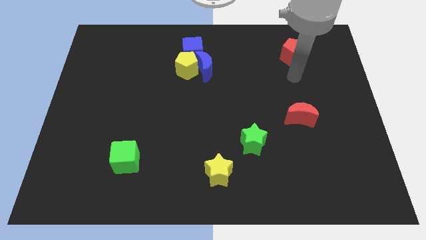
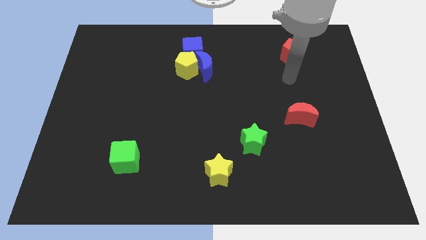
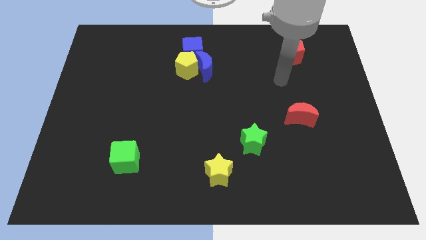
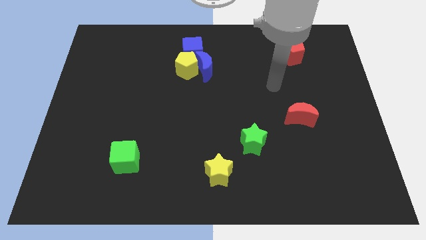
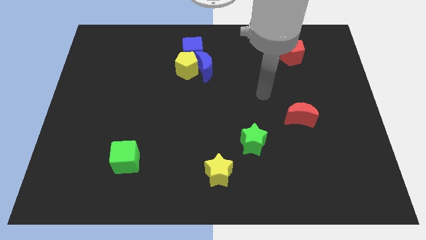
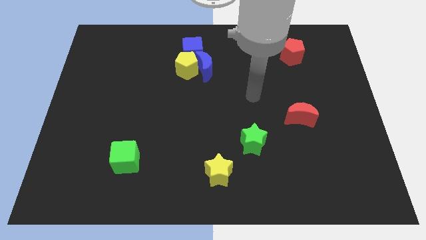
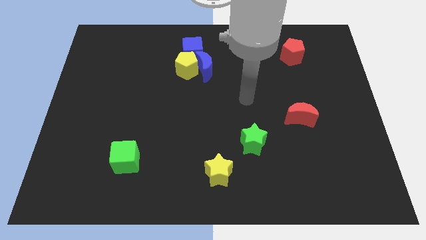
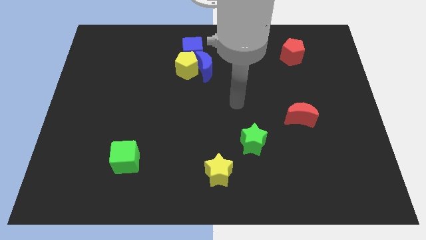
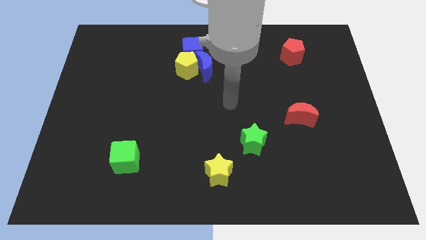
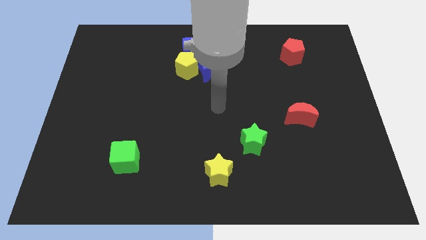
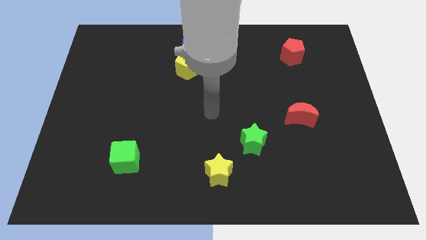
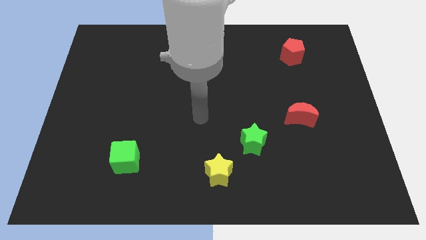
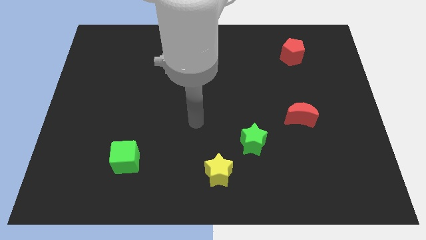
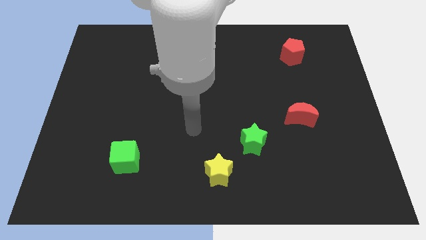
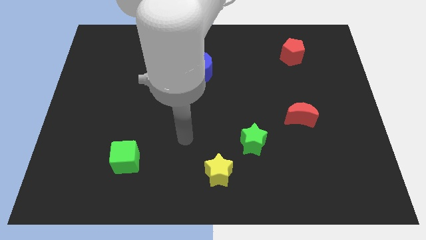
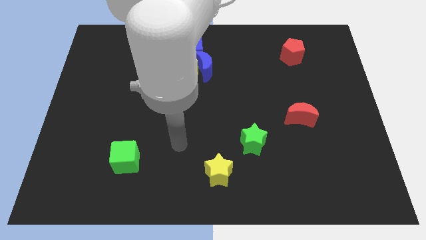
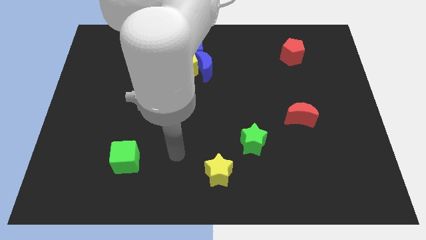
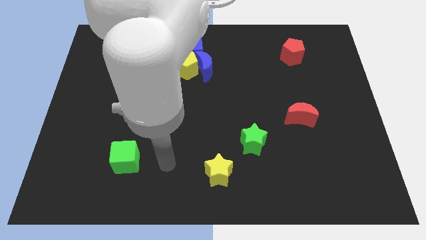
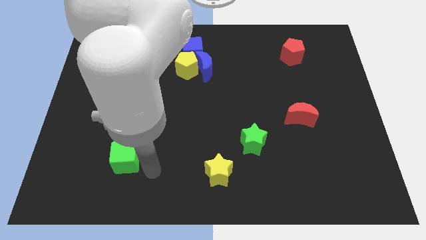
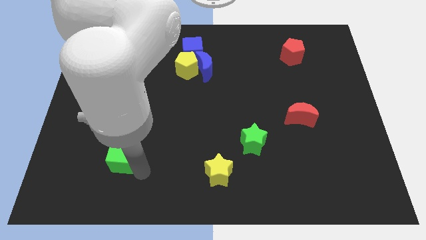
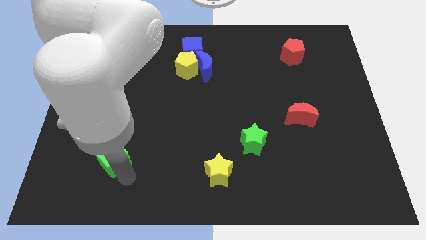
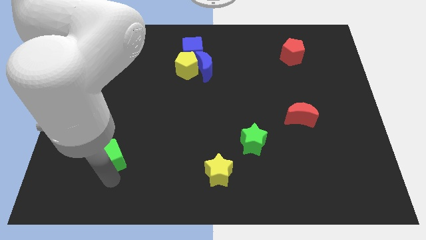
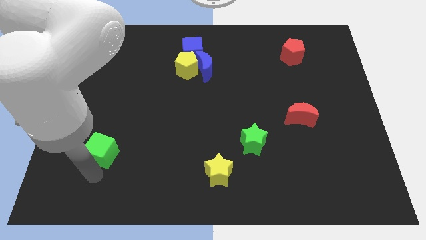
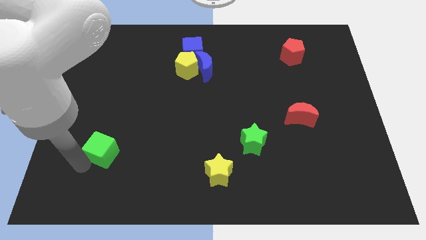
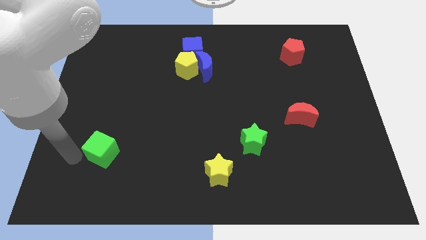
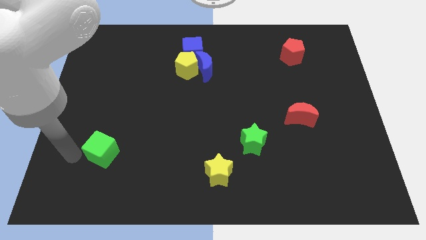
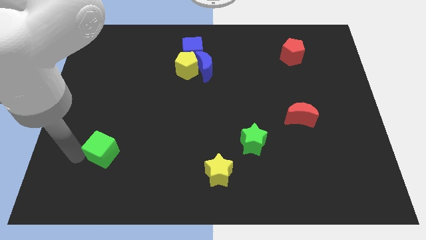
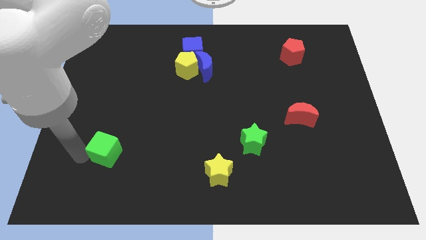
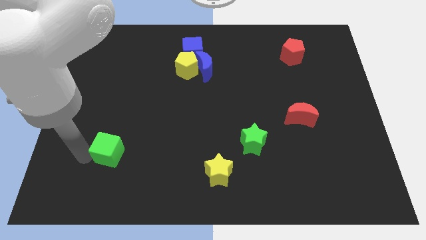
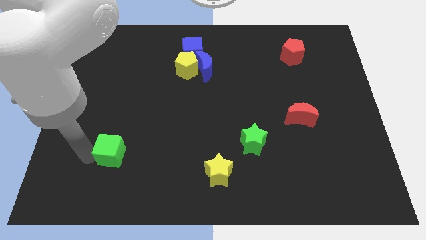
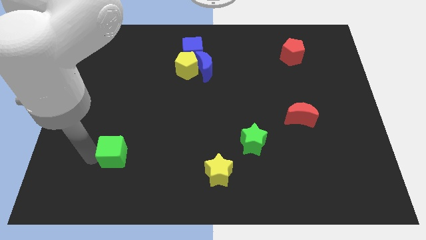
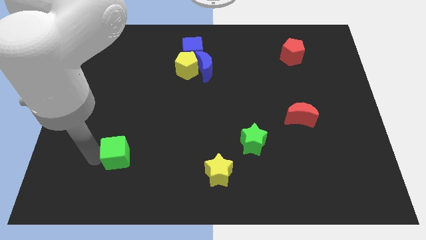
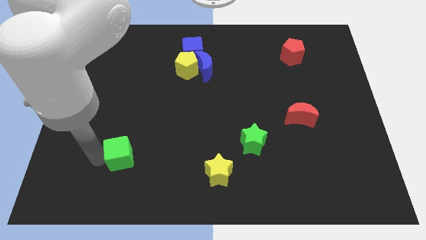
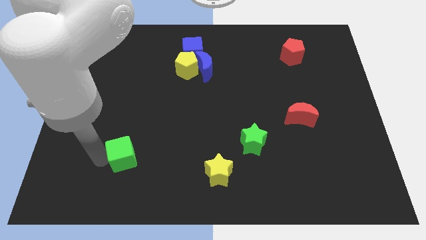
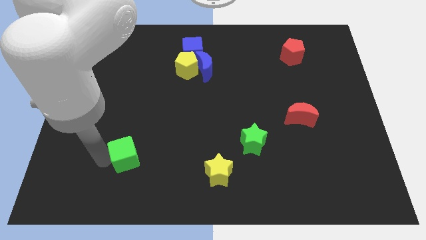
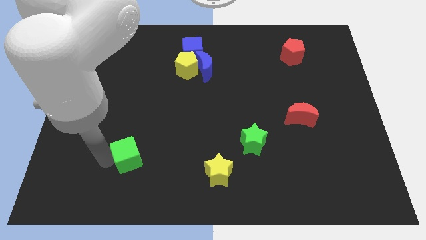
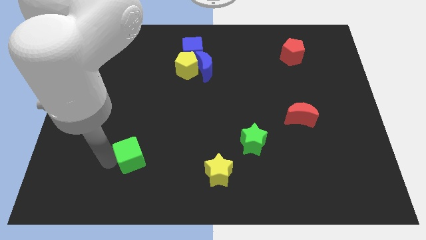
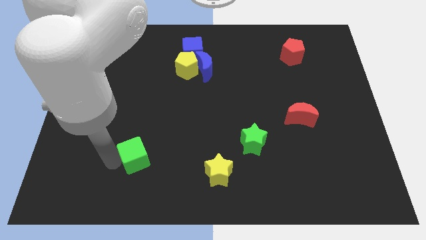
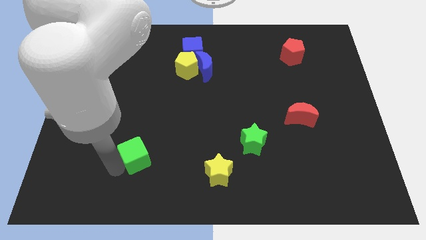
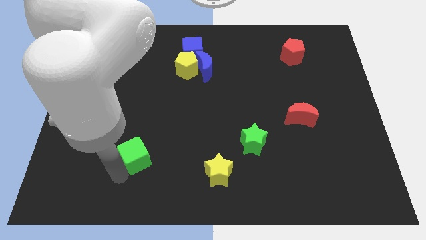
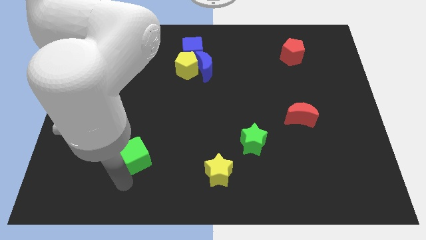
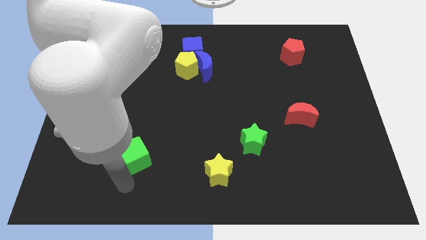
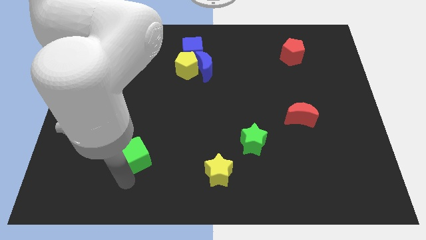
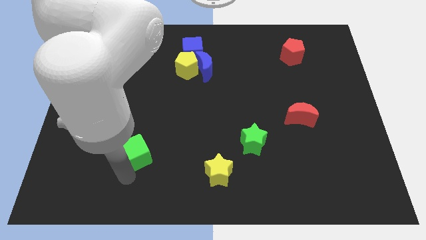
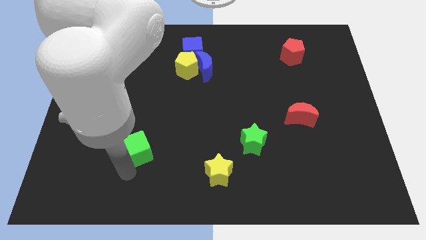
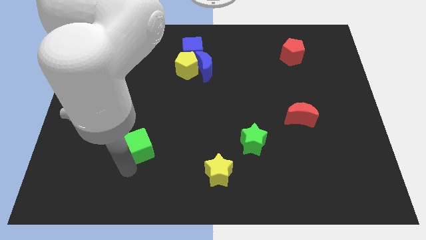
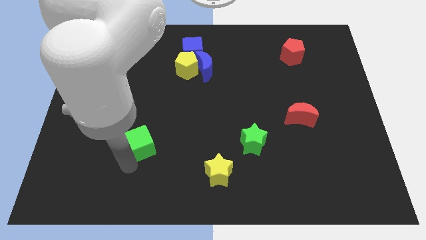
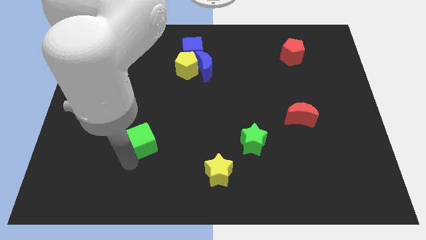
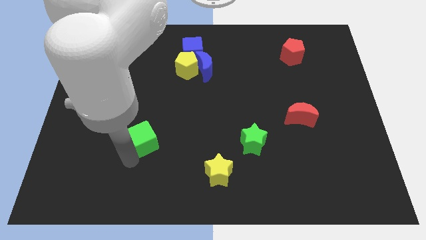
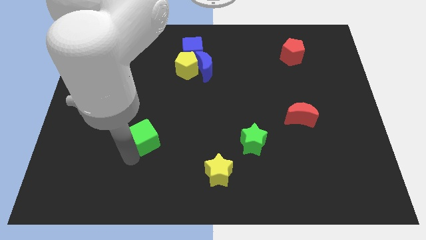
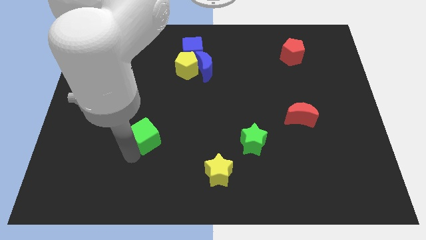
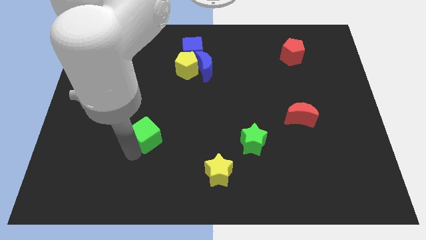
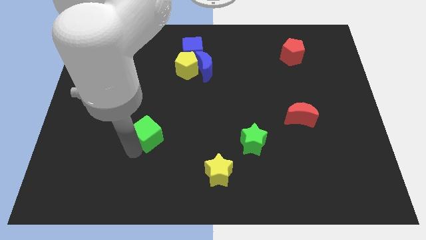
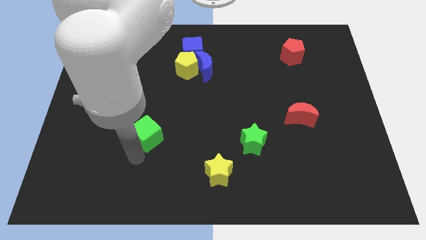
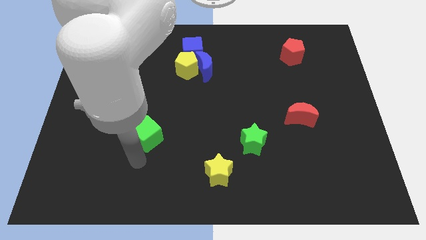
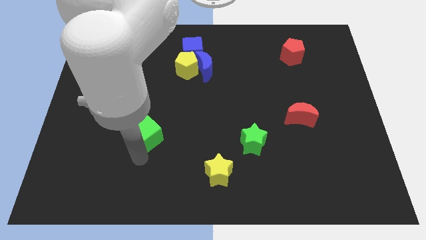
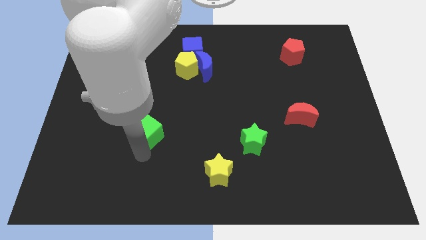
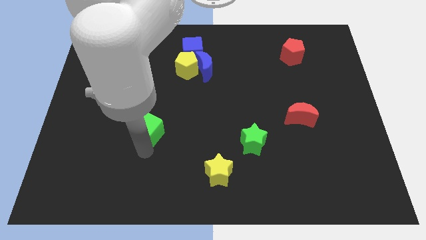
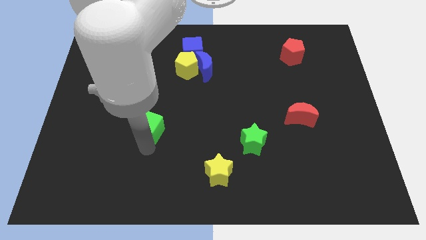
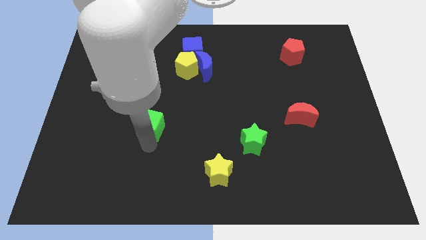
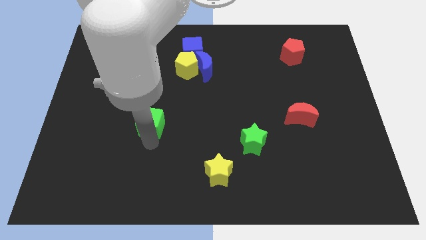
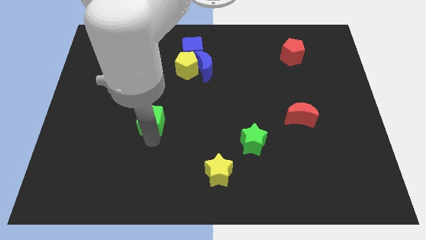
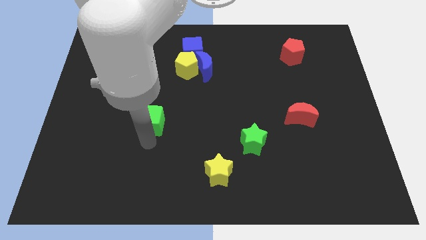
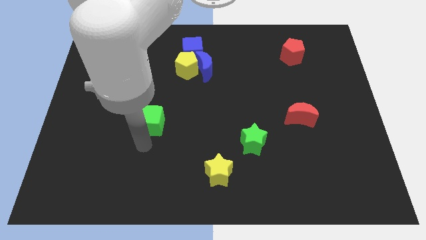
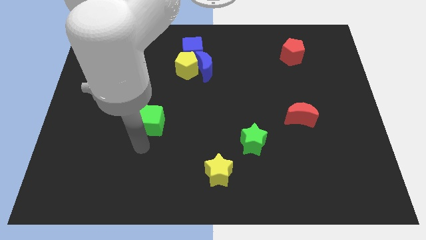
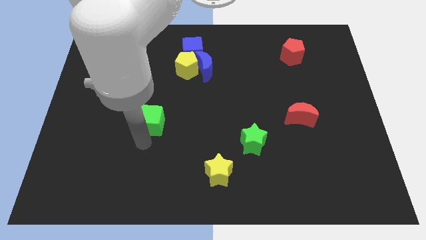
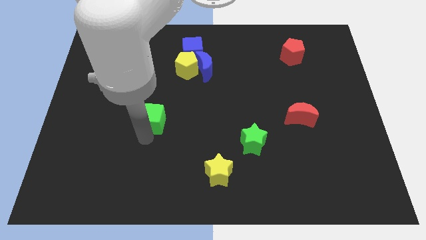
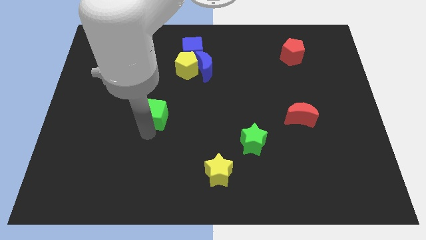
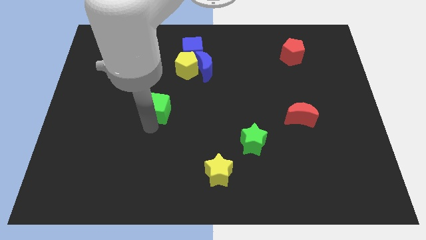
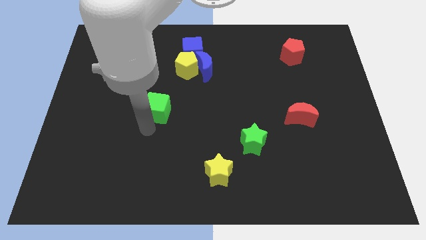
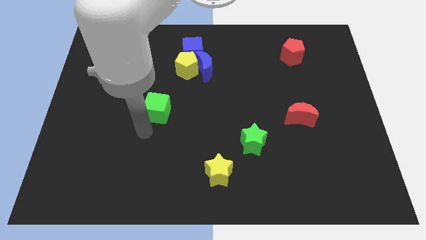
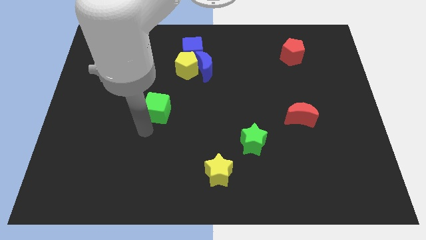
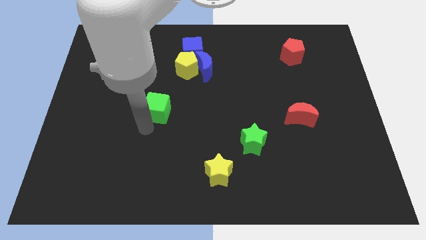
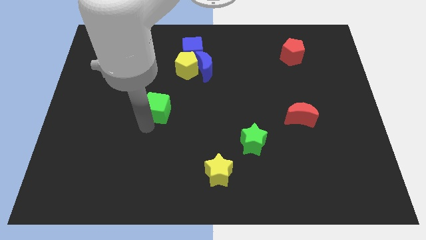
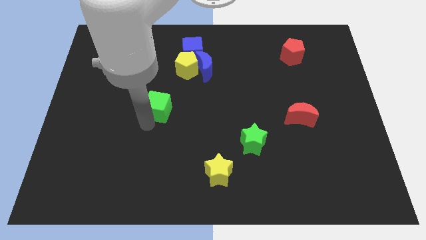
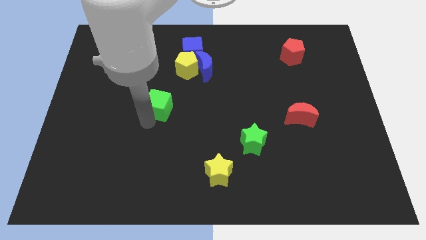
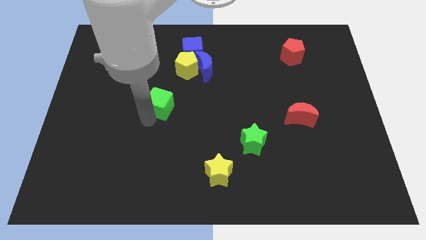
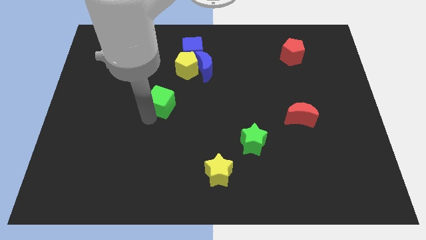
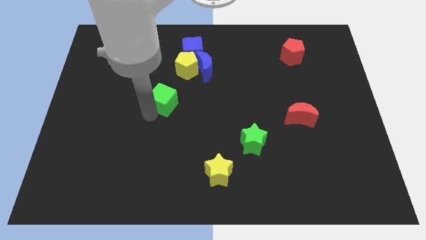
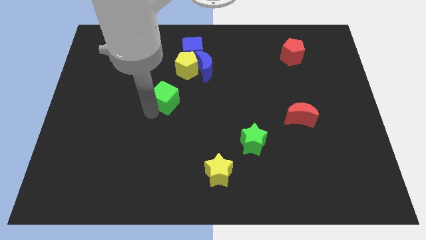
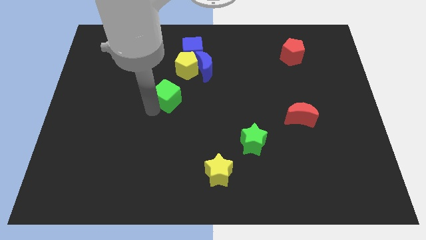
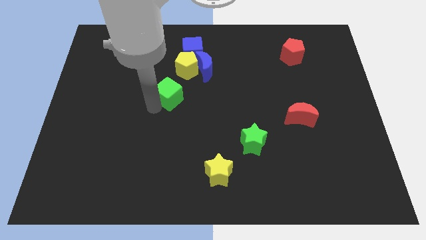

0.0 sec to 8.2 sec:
push the green cube diagonally down and to the left of the blue moon
